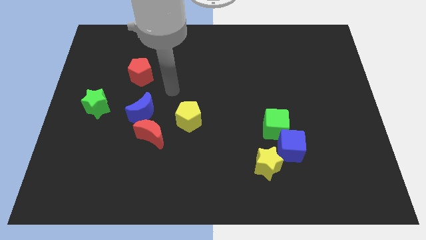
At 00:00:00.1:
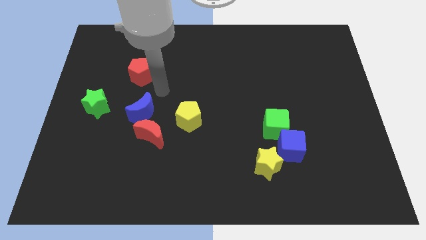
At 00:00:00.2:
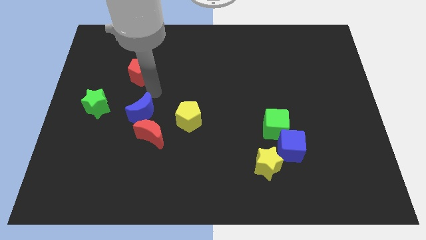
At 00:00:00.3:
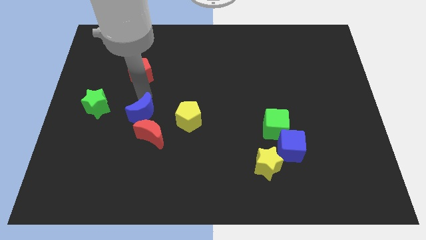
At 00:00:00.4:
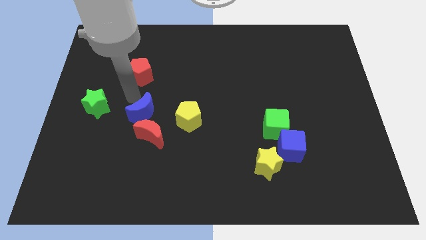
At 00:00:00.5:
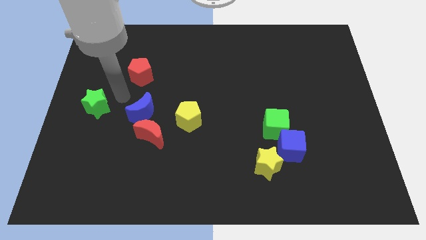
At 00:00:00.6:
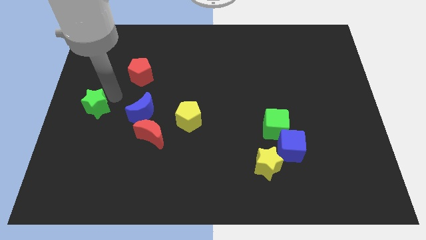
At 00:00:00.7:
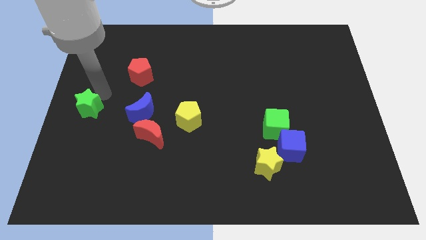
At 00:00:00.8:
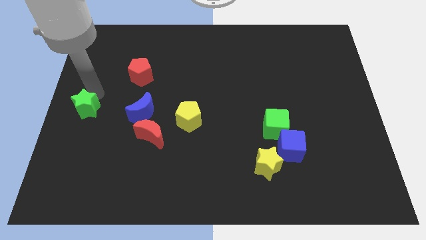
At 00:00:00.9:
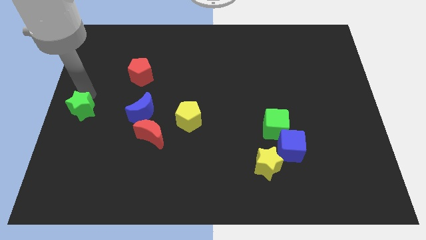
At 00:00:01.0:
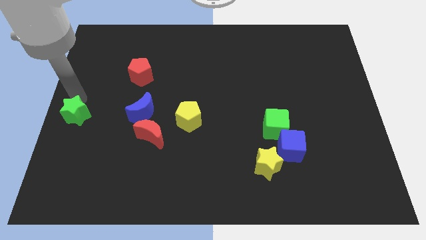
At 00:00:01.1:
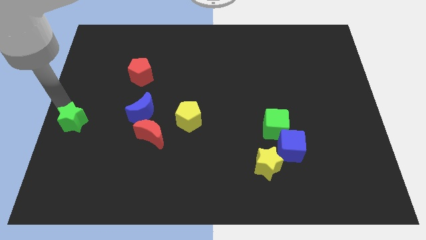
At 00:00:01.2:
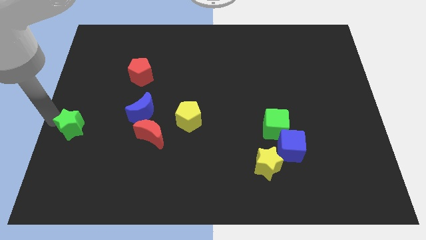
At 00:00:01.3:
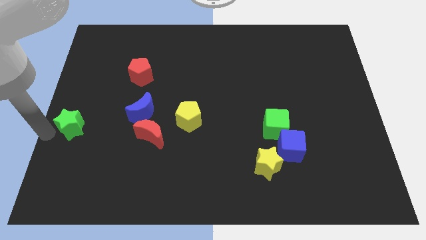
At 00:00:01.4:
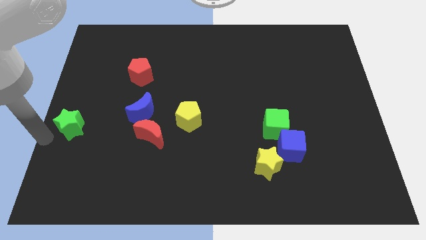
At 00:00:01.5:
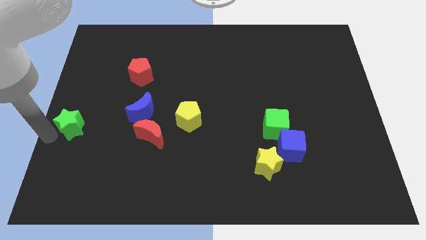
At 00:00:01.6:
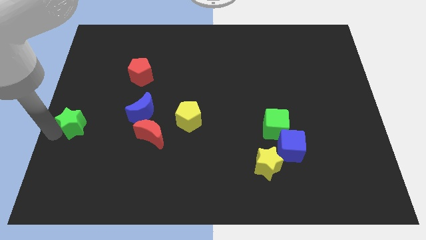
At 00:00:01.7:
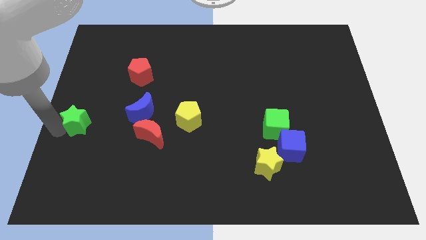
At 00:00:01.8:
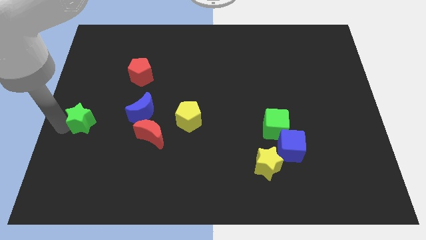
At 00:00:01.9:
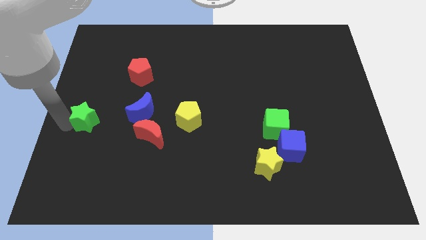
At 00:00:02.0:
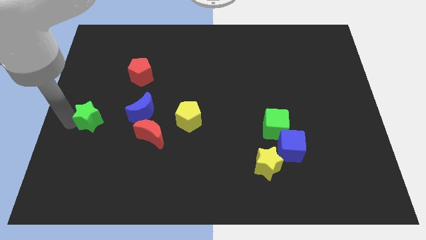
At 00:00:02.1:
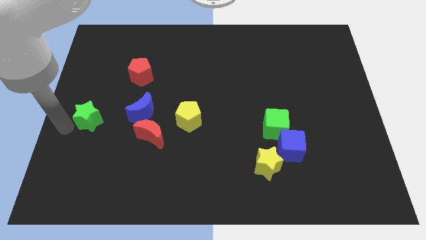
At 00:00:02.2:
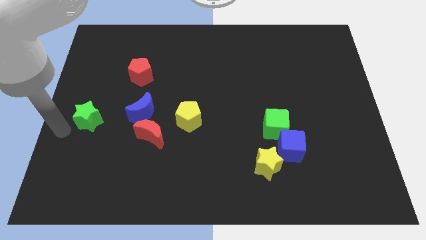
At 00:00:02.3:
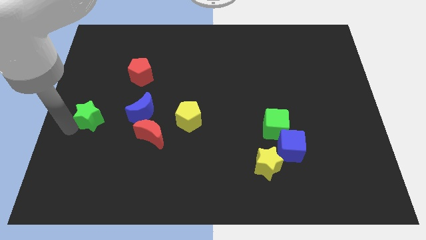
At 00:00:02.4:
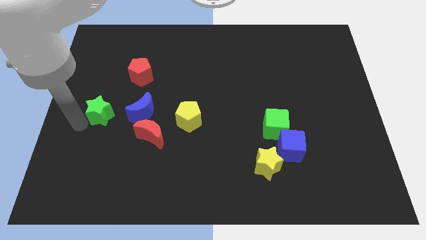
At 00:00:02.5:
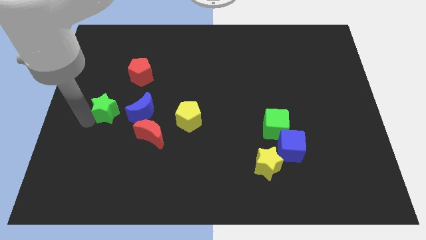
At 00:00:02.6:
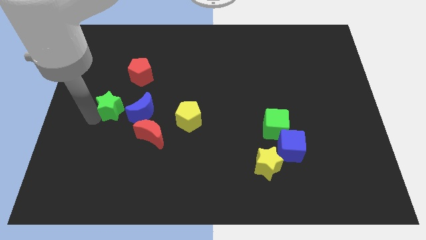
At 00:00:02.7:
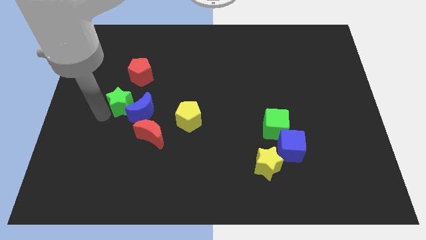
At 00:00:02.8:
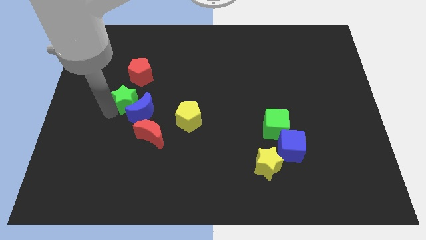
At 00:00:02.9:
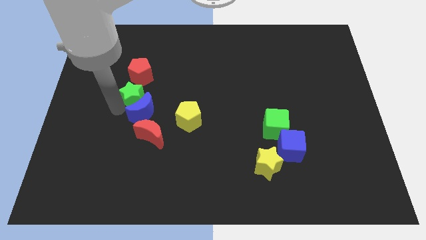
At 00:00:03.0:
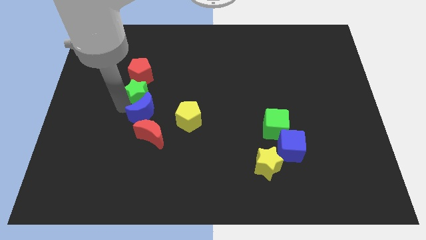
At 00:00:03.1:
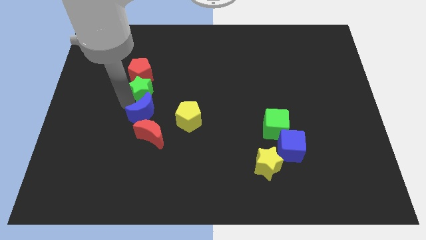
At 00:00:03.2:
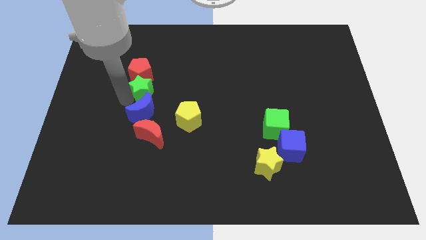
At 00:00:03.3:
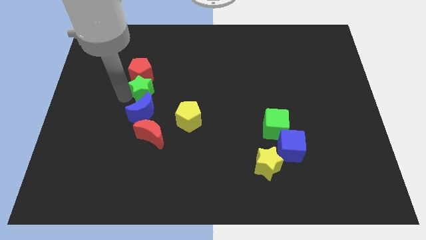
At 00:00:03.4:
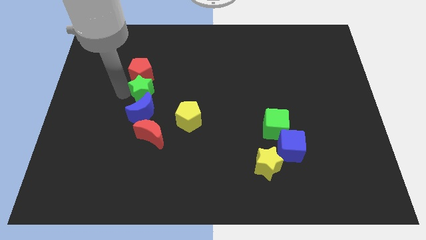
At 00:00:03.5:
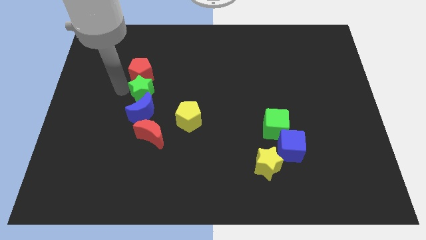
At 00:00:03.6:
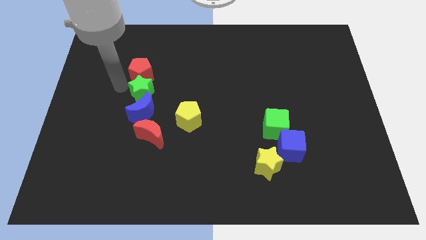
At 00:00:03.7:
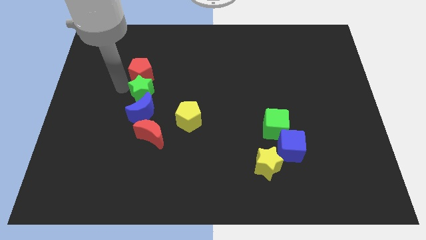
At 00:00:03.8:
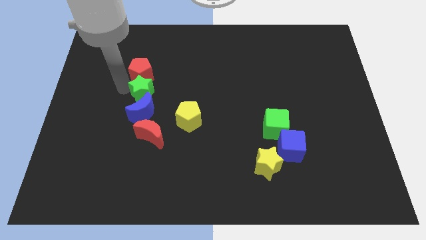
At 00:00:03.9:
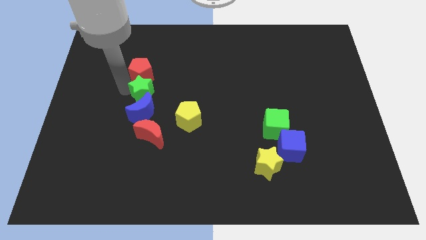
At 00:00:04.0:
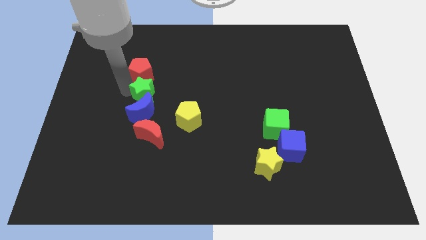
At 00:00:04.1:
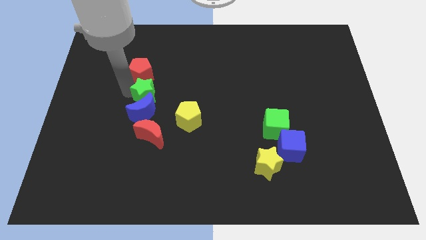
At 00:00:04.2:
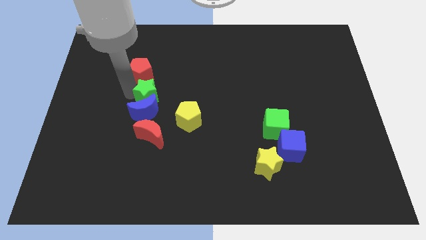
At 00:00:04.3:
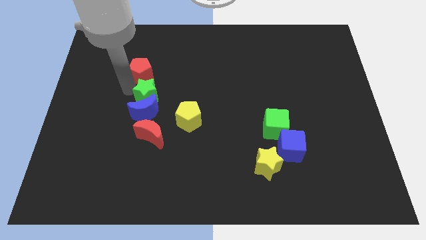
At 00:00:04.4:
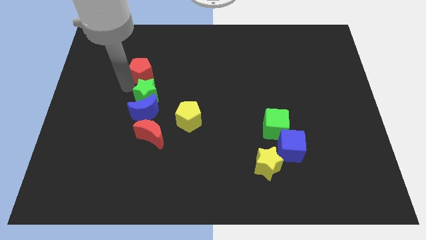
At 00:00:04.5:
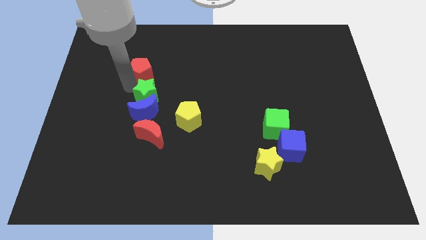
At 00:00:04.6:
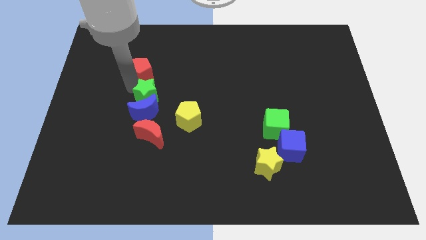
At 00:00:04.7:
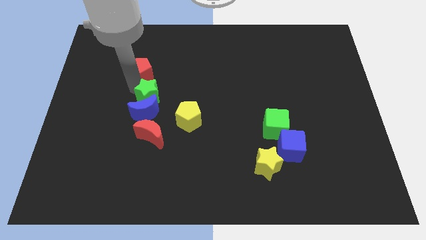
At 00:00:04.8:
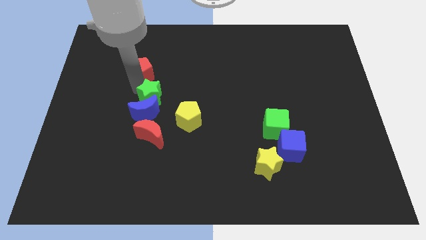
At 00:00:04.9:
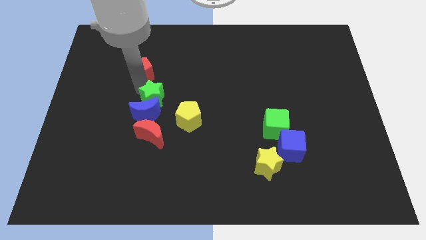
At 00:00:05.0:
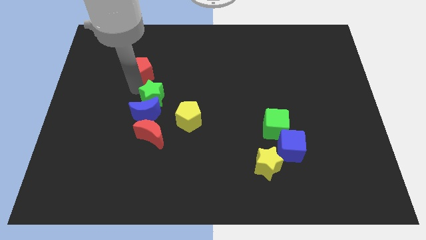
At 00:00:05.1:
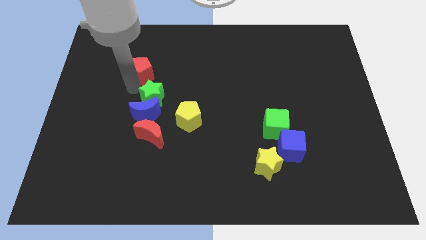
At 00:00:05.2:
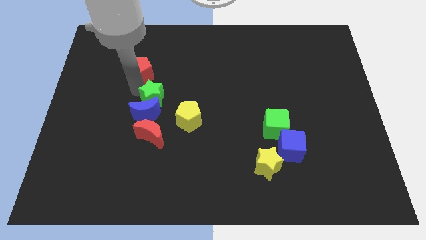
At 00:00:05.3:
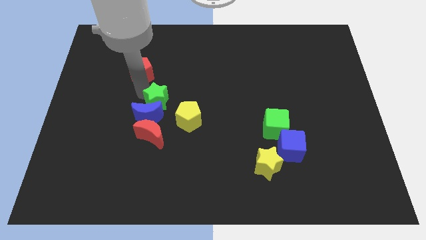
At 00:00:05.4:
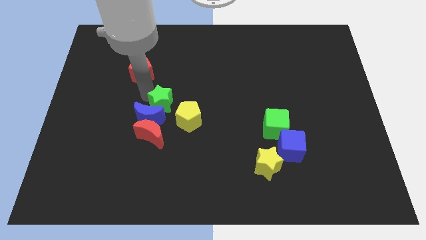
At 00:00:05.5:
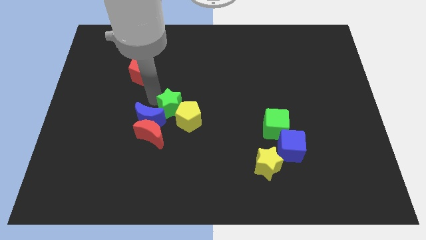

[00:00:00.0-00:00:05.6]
push the green star next to the yellow pentagon

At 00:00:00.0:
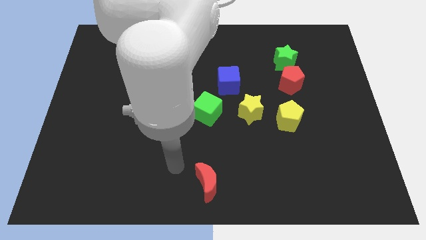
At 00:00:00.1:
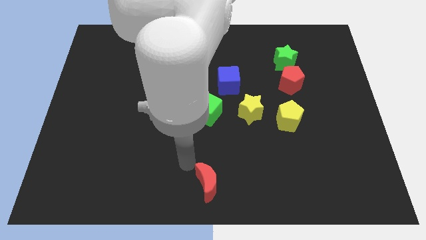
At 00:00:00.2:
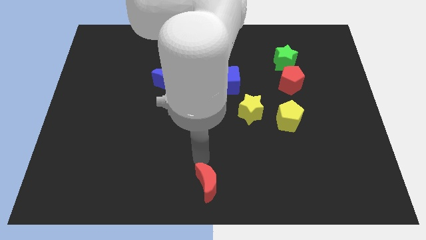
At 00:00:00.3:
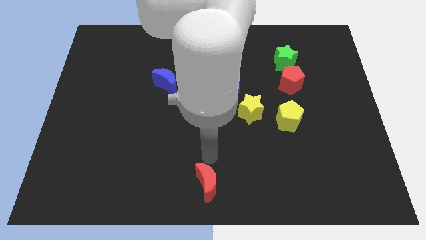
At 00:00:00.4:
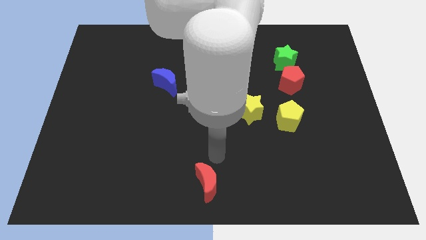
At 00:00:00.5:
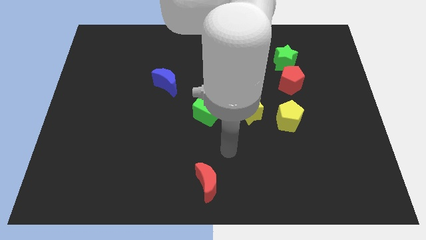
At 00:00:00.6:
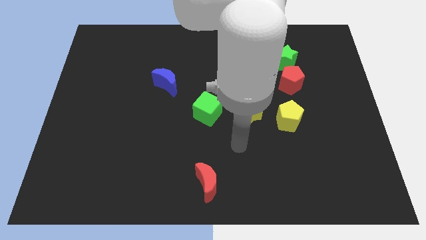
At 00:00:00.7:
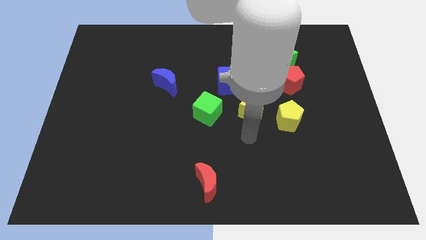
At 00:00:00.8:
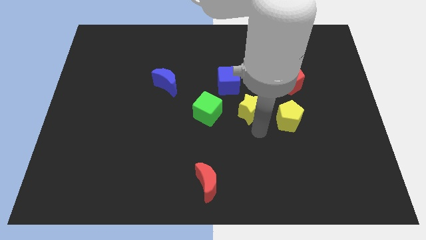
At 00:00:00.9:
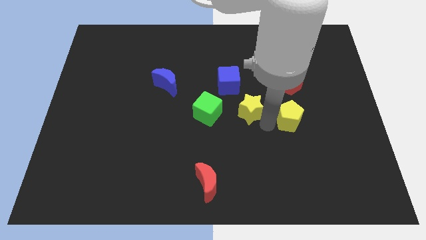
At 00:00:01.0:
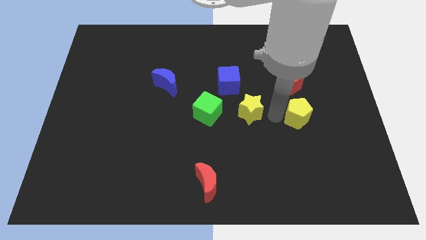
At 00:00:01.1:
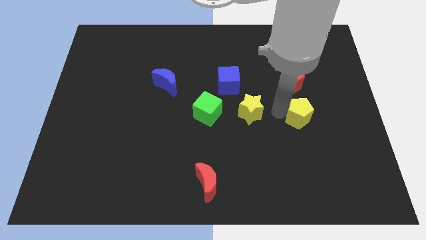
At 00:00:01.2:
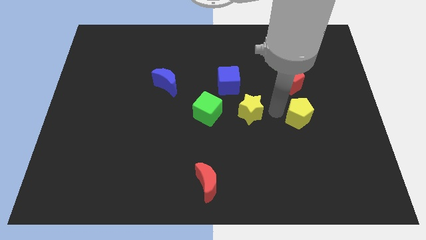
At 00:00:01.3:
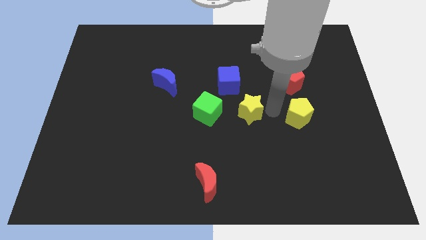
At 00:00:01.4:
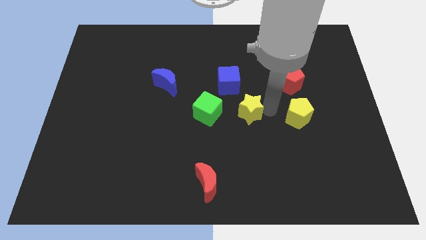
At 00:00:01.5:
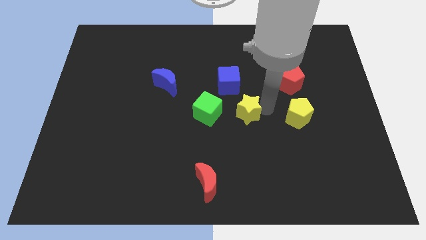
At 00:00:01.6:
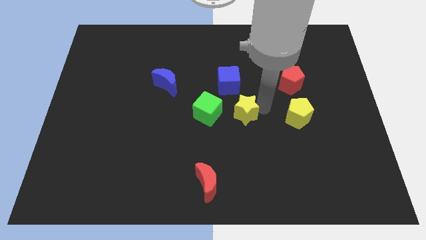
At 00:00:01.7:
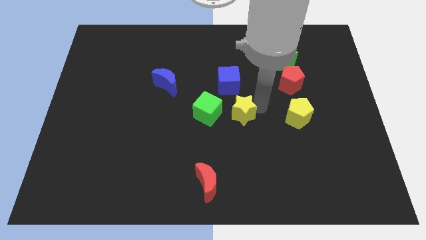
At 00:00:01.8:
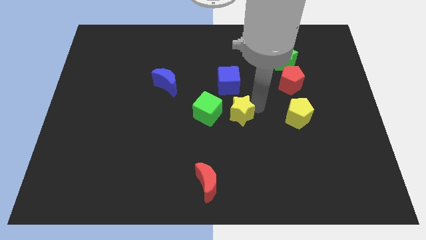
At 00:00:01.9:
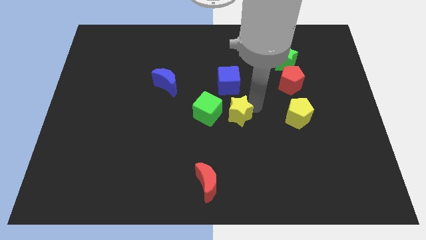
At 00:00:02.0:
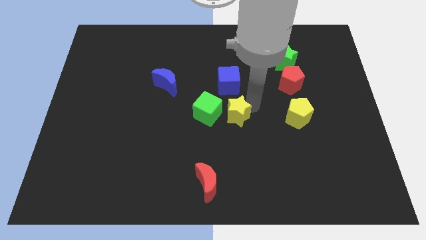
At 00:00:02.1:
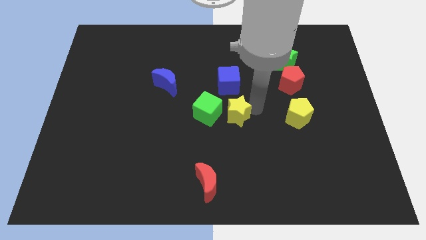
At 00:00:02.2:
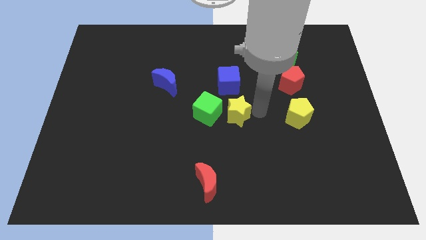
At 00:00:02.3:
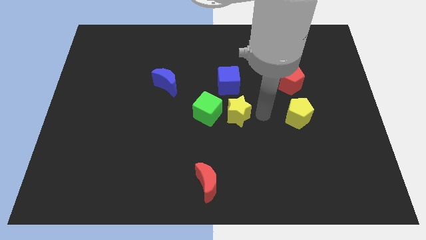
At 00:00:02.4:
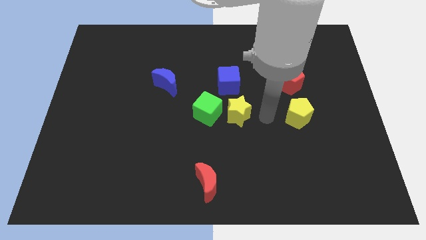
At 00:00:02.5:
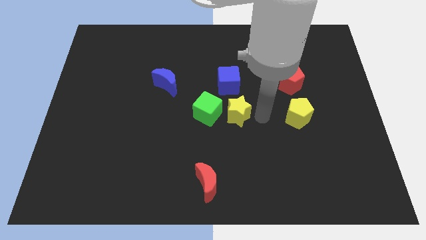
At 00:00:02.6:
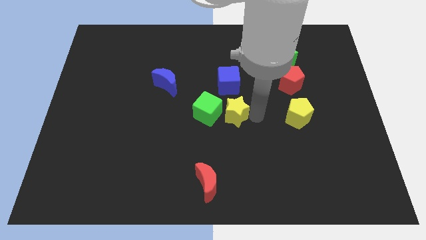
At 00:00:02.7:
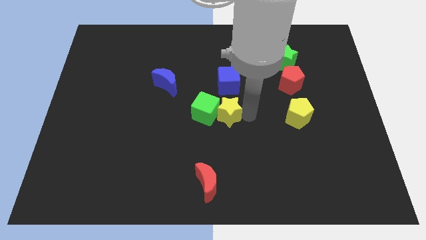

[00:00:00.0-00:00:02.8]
push the yellow star to the green cube
